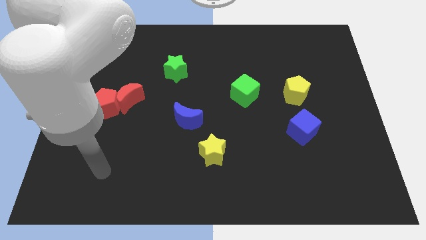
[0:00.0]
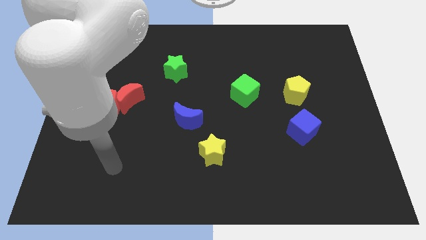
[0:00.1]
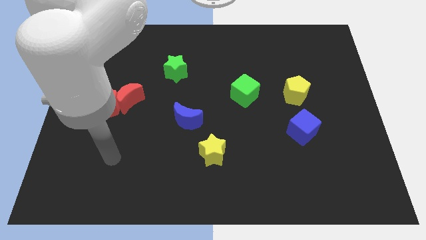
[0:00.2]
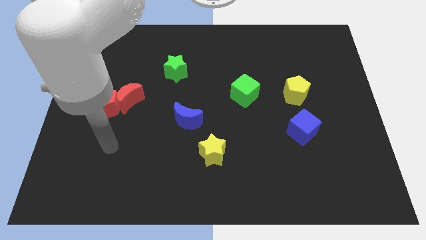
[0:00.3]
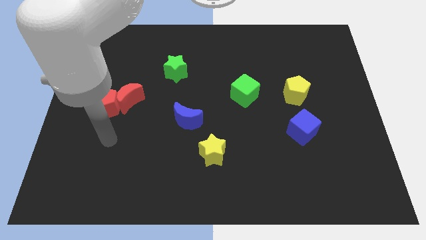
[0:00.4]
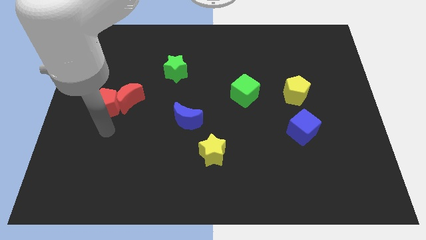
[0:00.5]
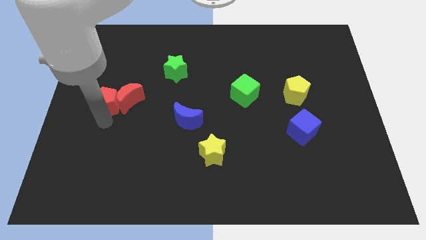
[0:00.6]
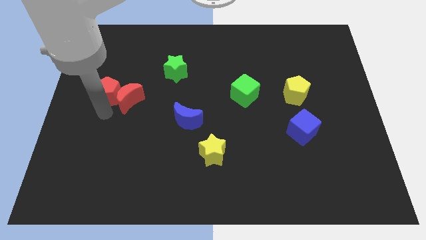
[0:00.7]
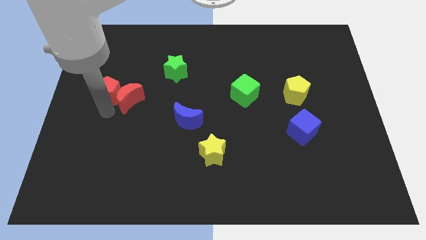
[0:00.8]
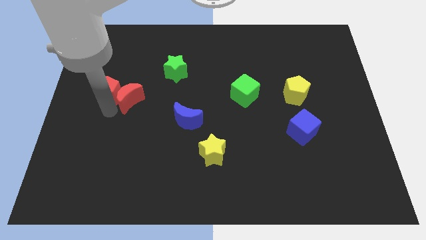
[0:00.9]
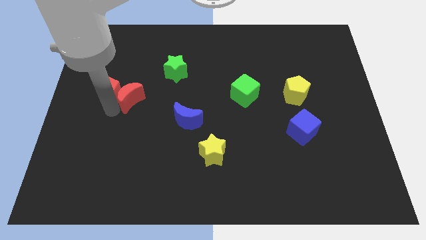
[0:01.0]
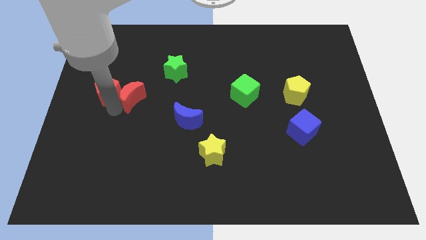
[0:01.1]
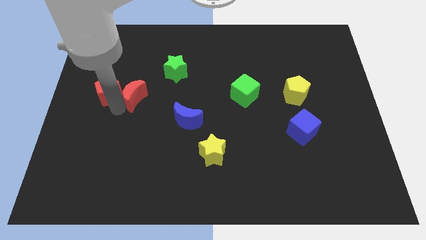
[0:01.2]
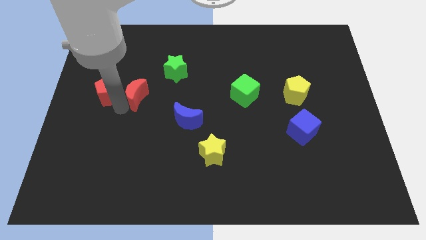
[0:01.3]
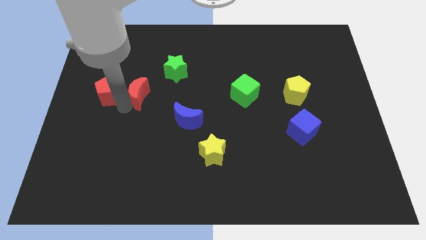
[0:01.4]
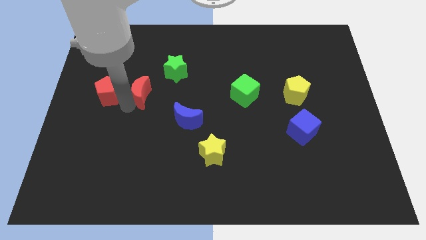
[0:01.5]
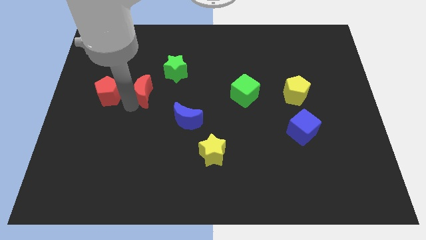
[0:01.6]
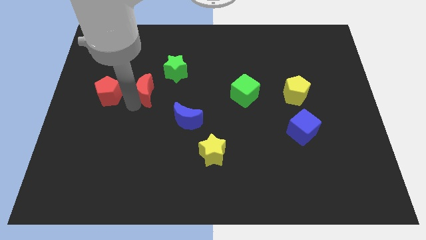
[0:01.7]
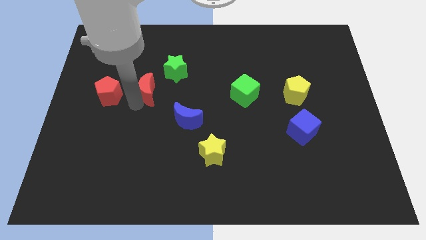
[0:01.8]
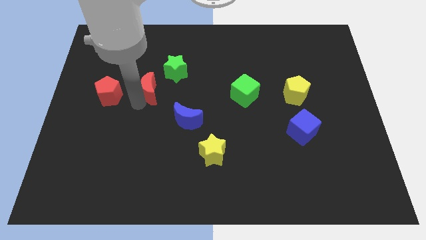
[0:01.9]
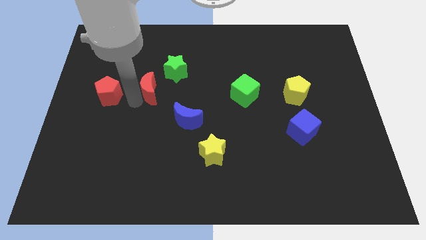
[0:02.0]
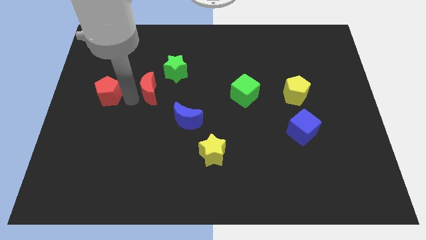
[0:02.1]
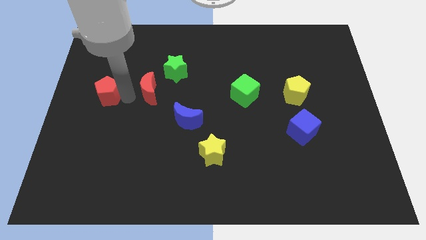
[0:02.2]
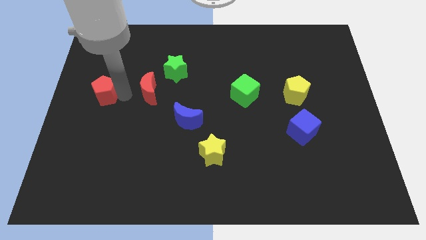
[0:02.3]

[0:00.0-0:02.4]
move the red moon away from the red pentagon

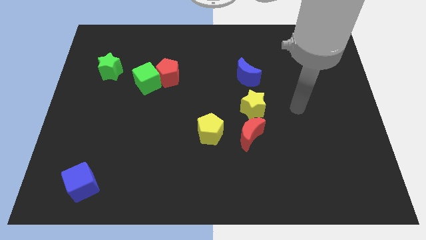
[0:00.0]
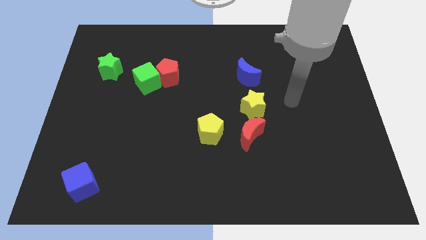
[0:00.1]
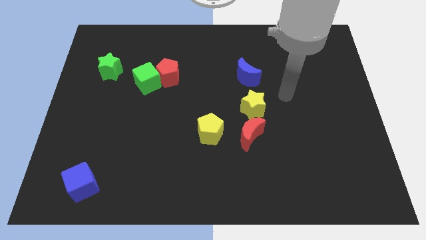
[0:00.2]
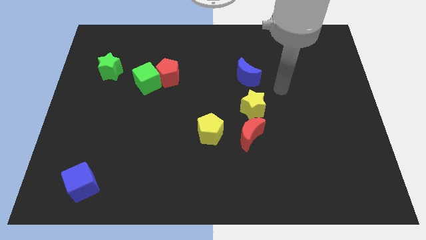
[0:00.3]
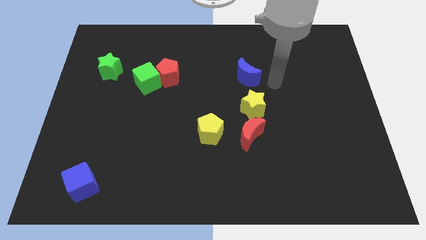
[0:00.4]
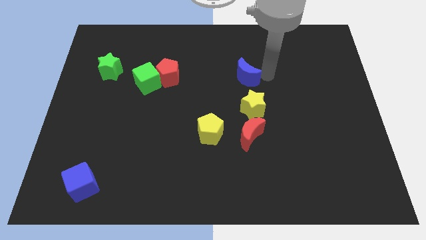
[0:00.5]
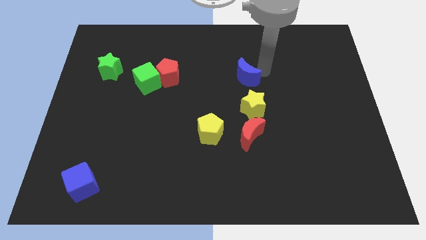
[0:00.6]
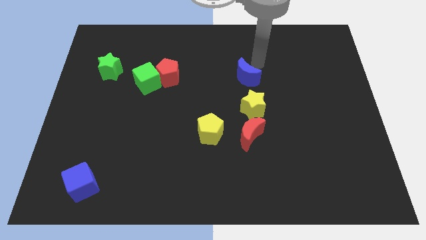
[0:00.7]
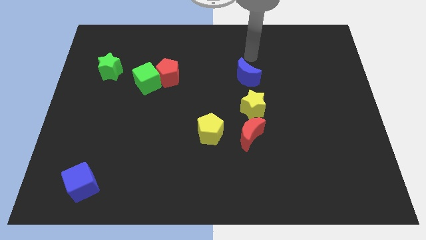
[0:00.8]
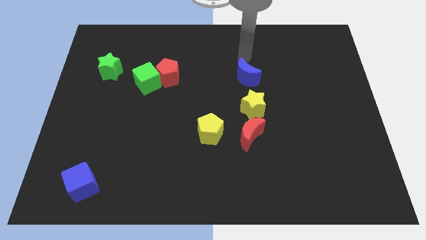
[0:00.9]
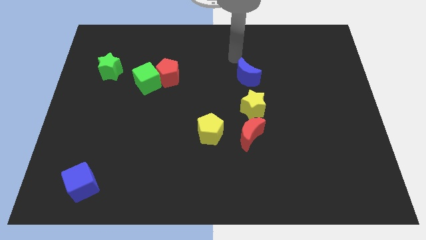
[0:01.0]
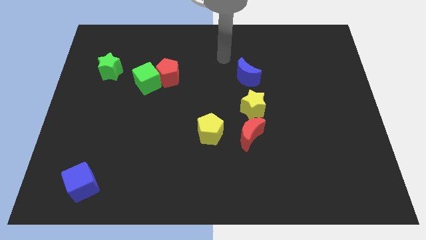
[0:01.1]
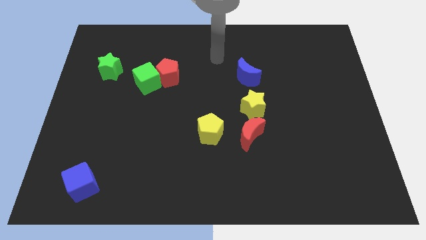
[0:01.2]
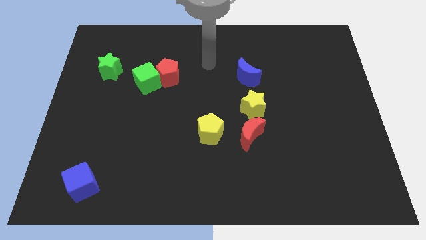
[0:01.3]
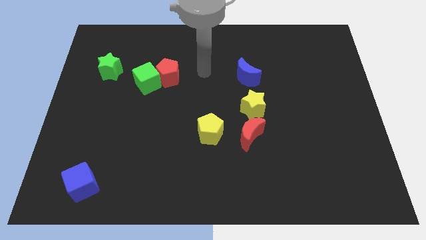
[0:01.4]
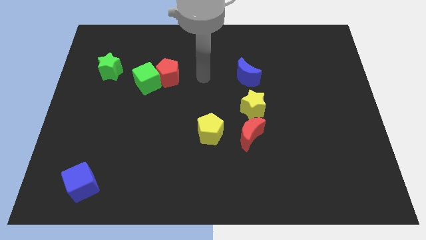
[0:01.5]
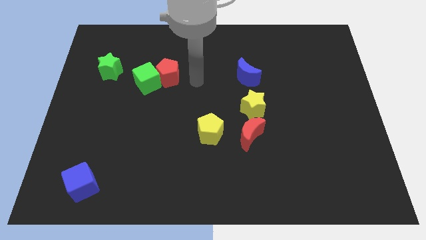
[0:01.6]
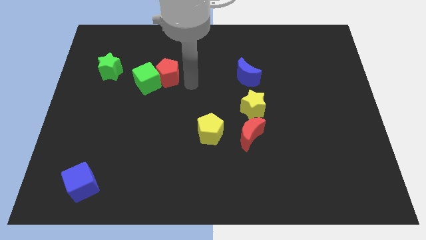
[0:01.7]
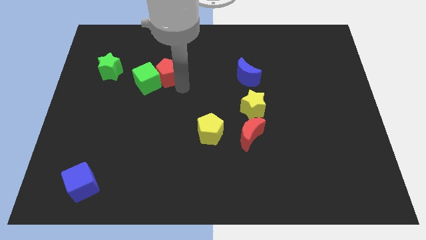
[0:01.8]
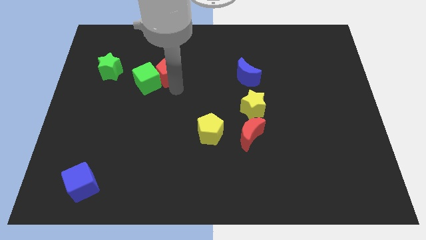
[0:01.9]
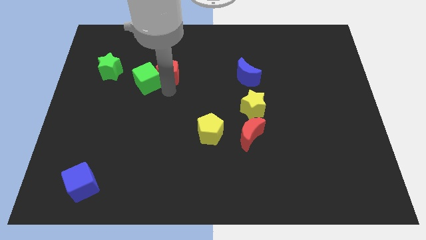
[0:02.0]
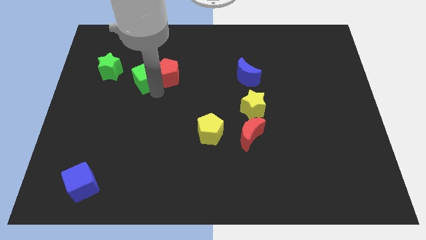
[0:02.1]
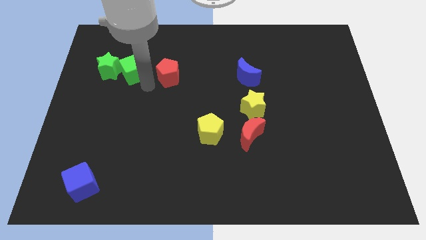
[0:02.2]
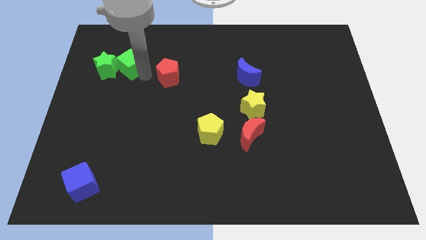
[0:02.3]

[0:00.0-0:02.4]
move the red pentagon away from the green cube

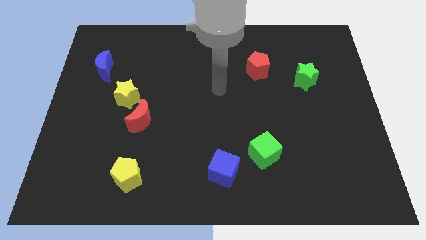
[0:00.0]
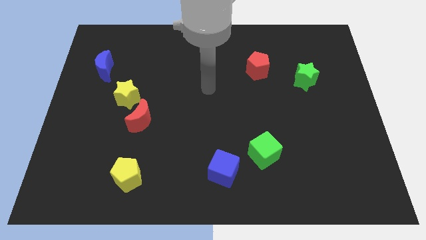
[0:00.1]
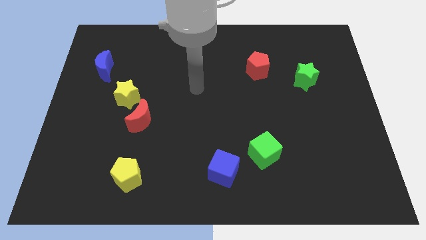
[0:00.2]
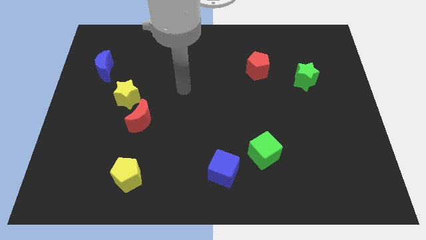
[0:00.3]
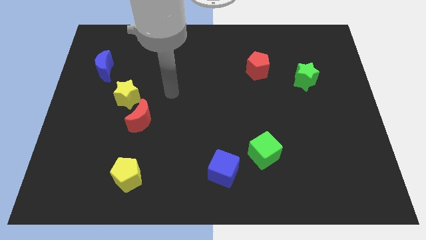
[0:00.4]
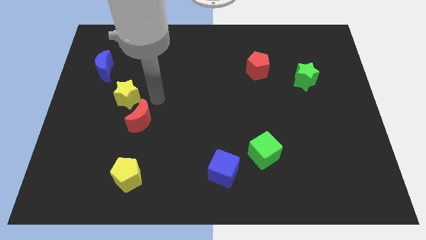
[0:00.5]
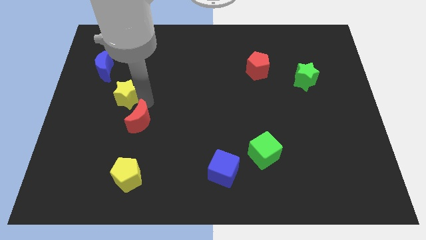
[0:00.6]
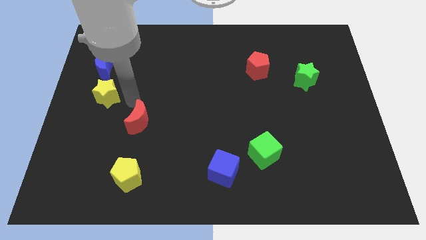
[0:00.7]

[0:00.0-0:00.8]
separate the red moon from the yellow star

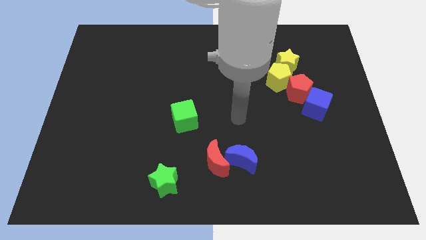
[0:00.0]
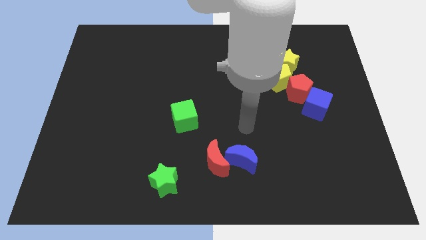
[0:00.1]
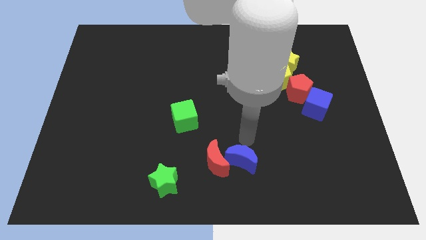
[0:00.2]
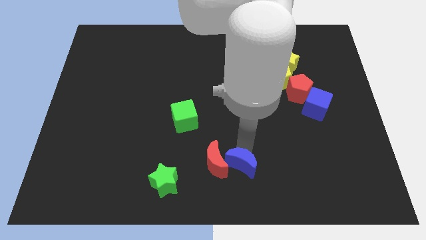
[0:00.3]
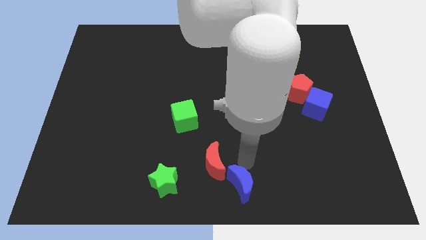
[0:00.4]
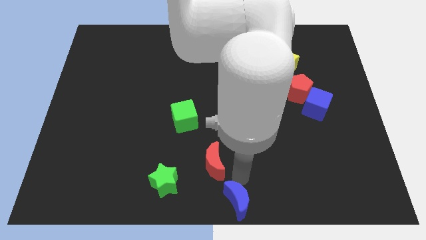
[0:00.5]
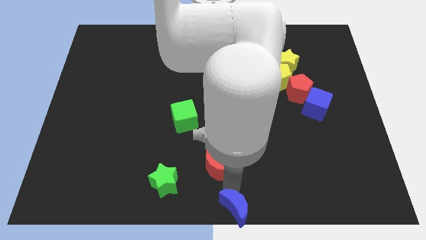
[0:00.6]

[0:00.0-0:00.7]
separate the red moon from the blue moon

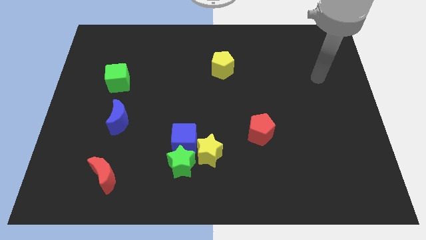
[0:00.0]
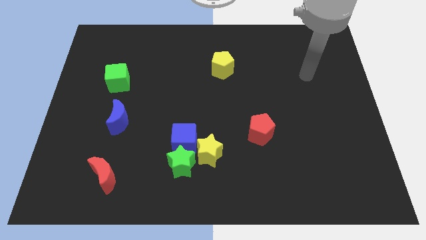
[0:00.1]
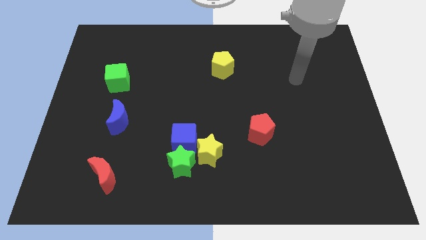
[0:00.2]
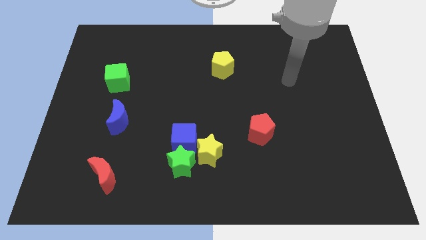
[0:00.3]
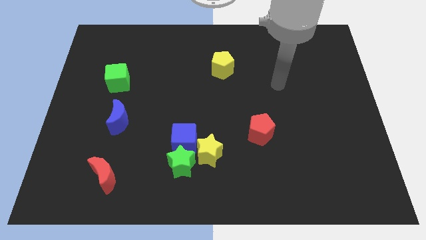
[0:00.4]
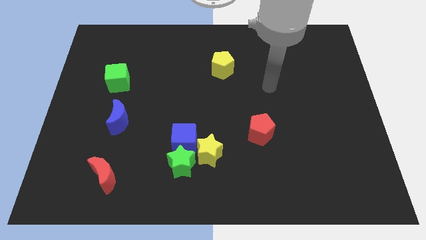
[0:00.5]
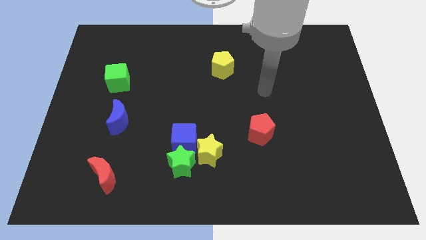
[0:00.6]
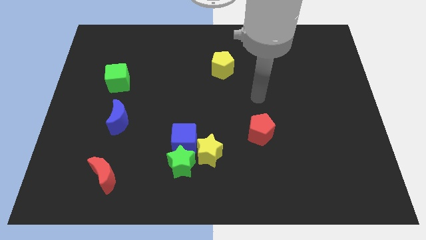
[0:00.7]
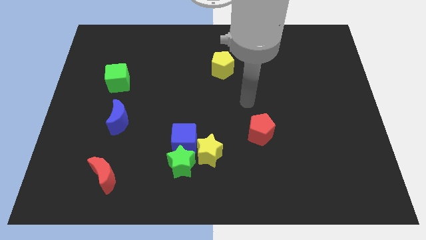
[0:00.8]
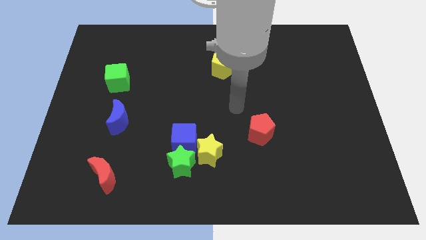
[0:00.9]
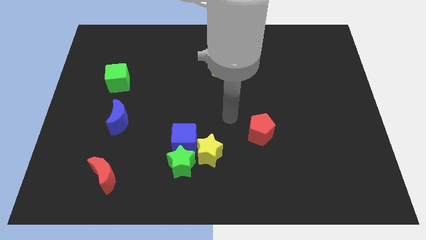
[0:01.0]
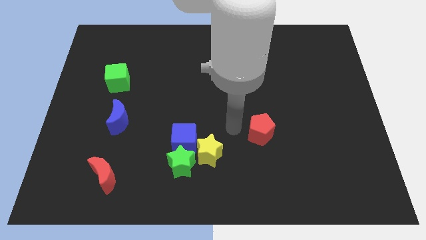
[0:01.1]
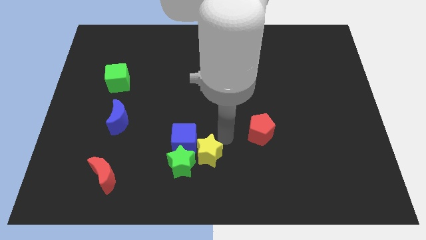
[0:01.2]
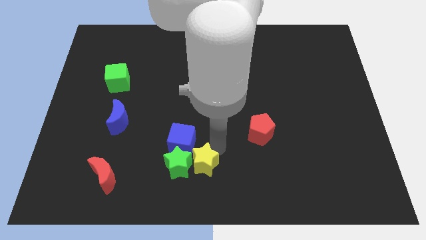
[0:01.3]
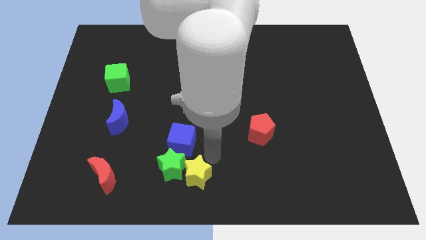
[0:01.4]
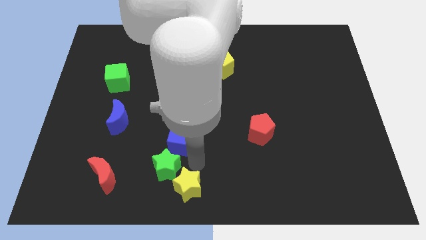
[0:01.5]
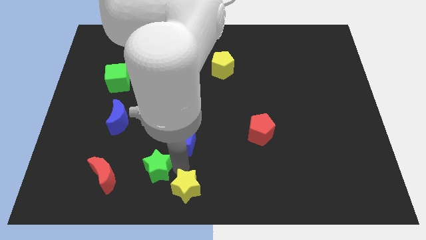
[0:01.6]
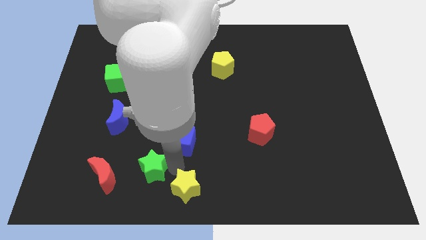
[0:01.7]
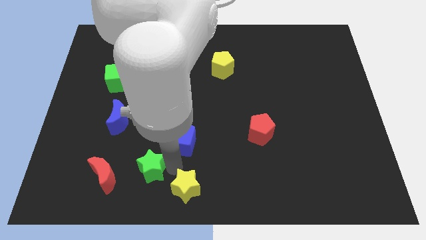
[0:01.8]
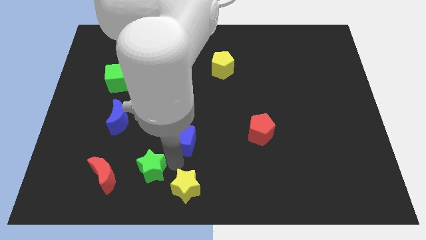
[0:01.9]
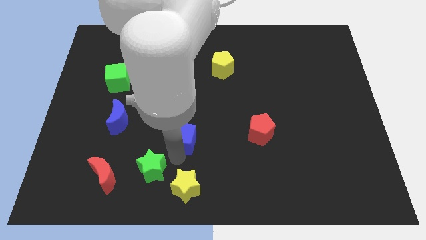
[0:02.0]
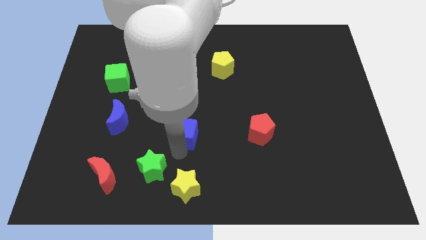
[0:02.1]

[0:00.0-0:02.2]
move the blue cube away from the green star and yellow star

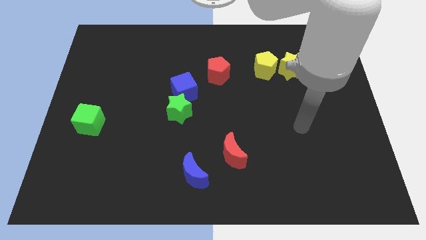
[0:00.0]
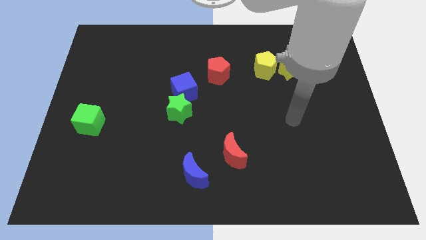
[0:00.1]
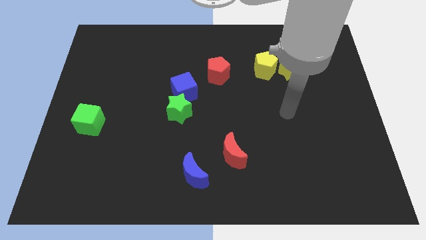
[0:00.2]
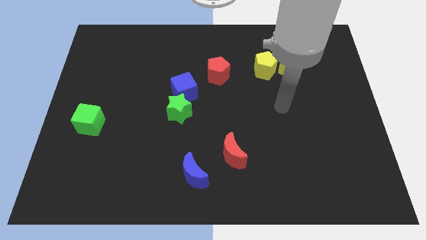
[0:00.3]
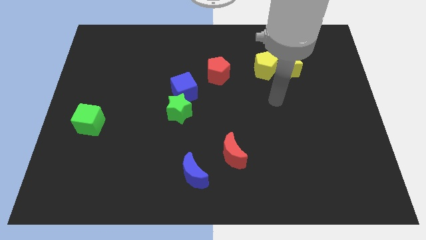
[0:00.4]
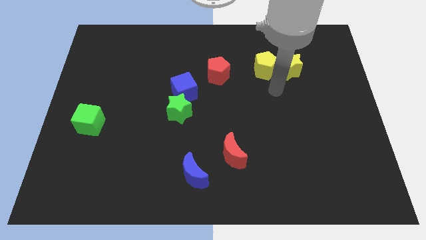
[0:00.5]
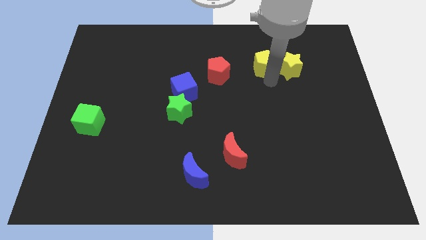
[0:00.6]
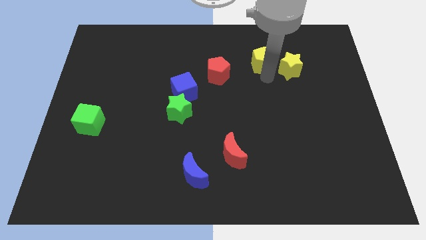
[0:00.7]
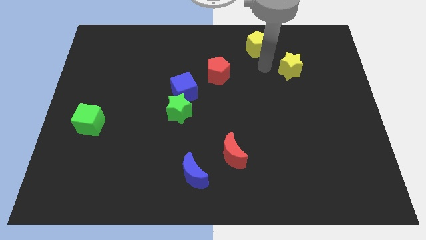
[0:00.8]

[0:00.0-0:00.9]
separate the yellow star from the yellow pentagon
